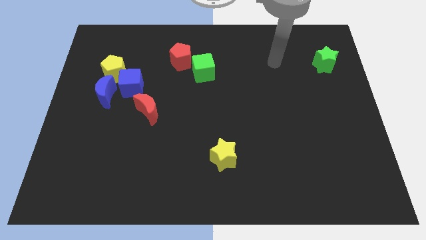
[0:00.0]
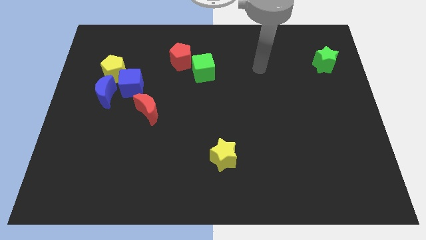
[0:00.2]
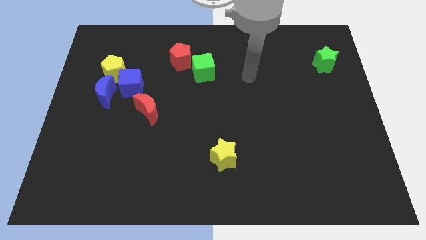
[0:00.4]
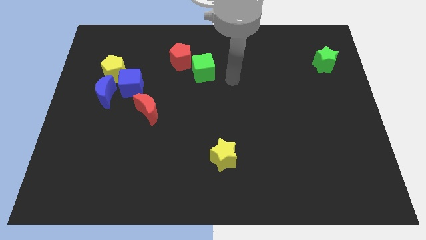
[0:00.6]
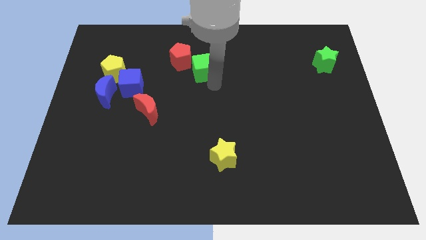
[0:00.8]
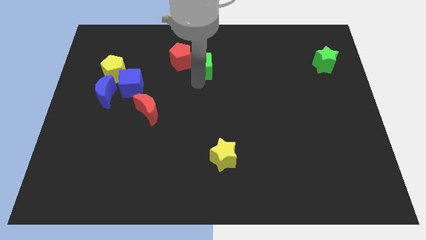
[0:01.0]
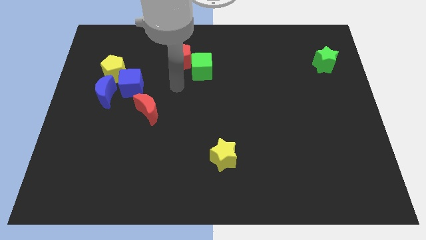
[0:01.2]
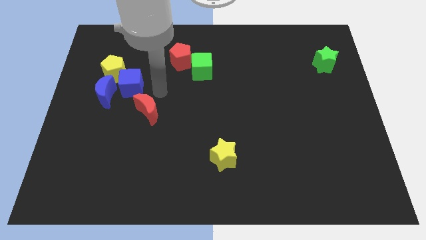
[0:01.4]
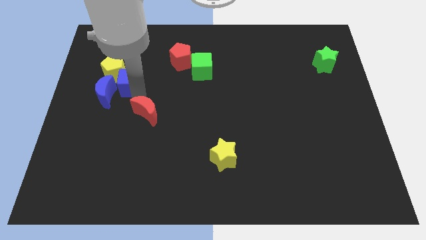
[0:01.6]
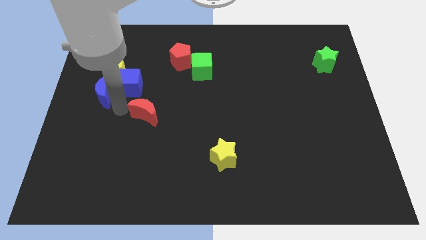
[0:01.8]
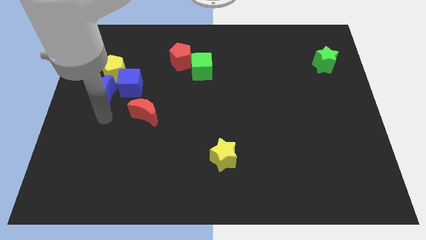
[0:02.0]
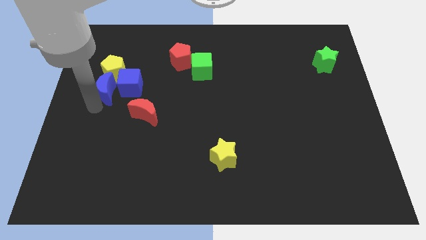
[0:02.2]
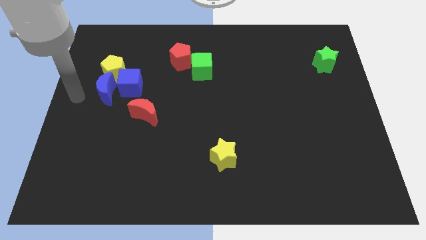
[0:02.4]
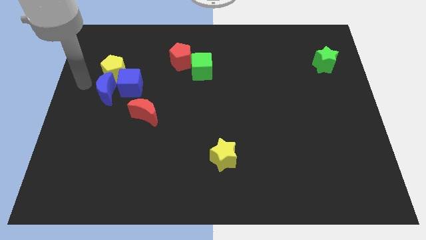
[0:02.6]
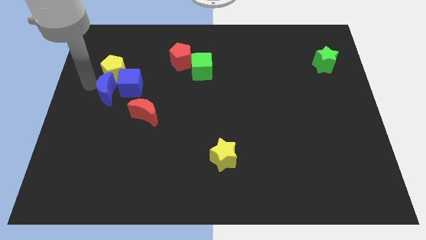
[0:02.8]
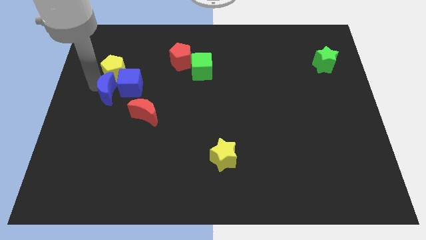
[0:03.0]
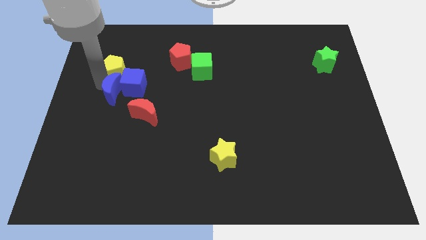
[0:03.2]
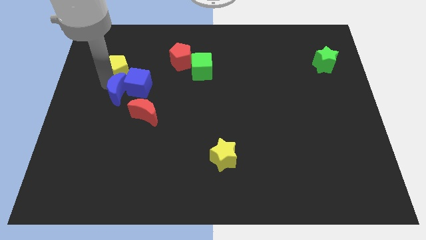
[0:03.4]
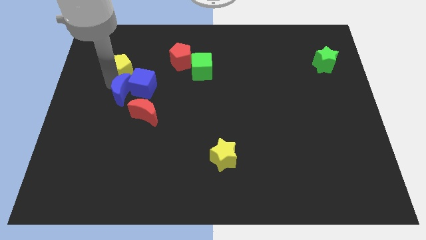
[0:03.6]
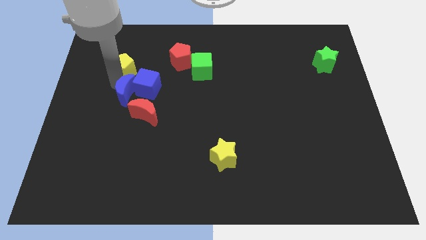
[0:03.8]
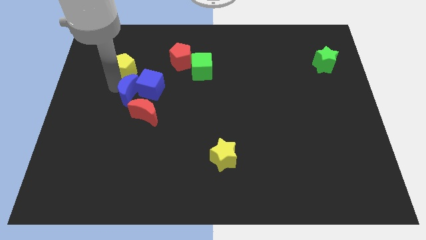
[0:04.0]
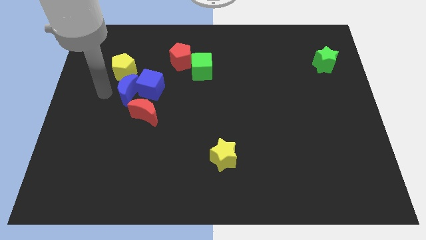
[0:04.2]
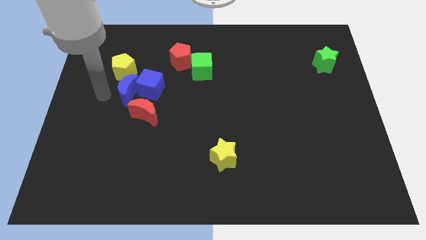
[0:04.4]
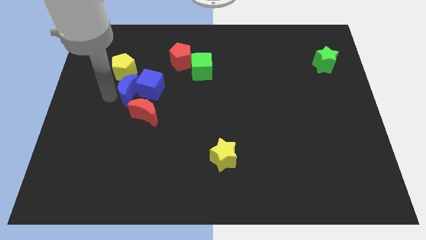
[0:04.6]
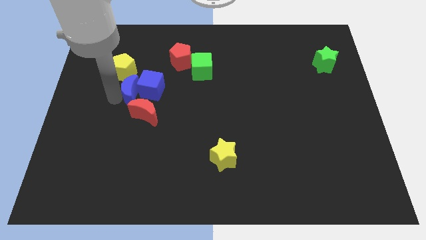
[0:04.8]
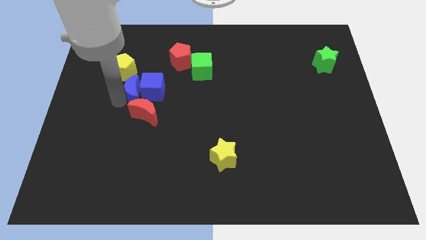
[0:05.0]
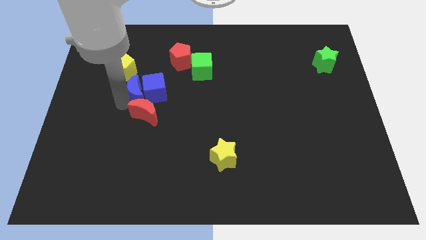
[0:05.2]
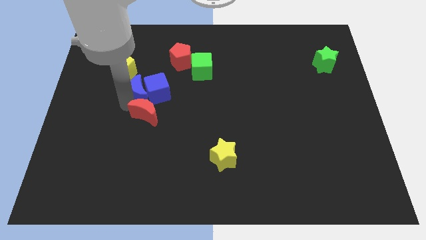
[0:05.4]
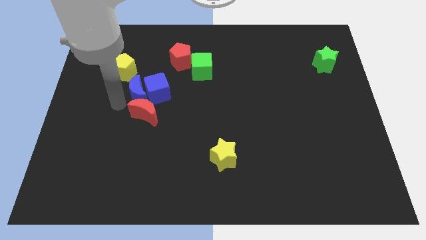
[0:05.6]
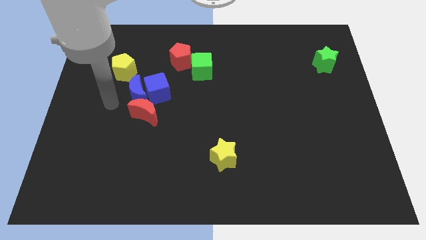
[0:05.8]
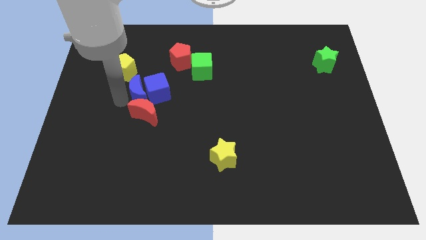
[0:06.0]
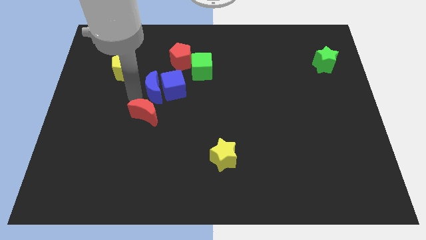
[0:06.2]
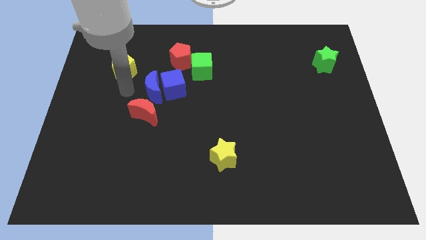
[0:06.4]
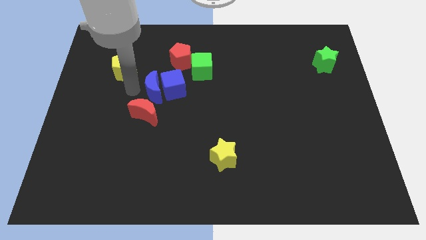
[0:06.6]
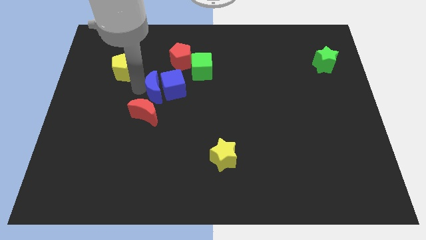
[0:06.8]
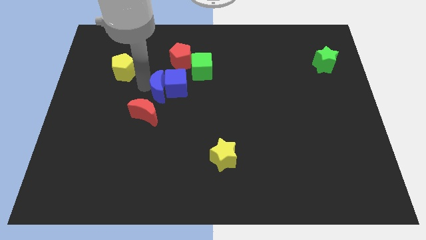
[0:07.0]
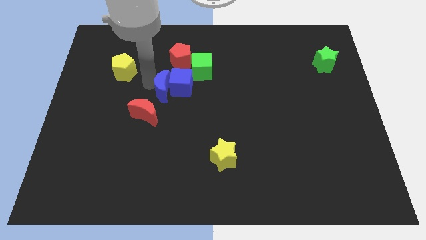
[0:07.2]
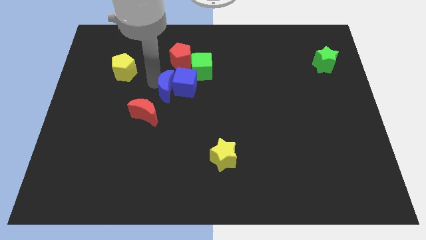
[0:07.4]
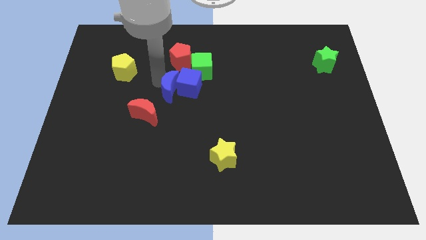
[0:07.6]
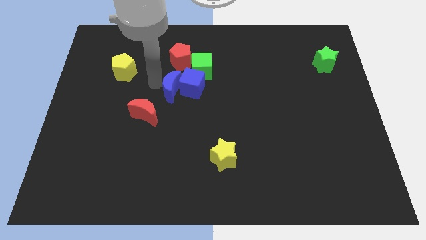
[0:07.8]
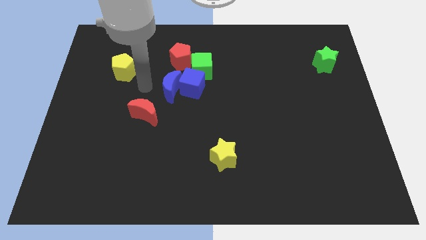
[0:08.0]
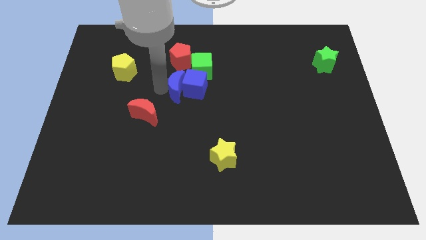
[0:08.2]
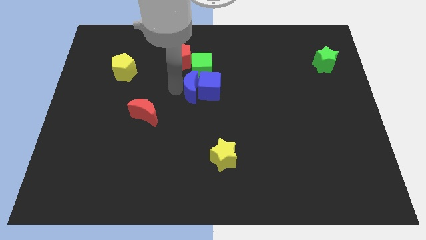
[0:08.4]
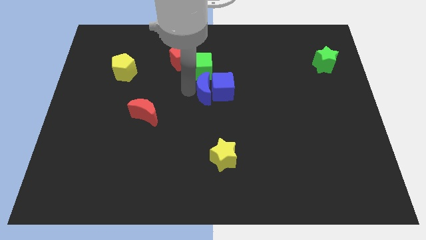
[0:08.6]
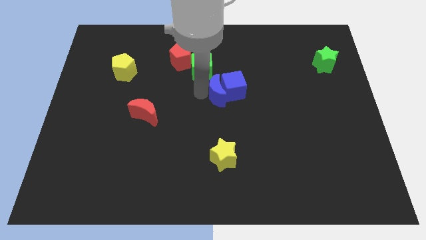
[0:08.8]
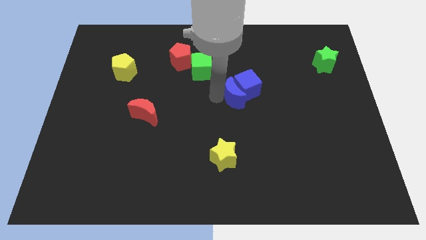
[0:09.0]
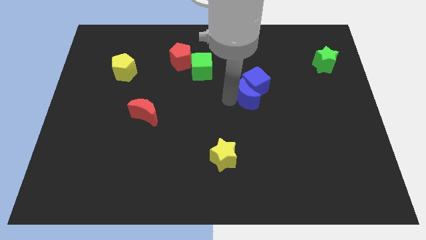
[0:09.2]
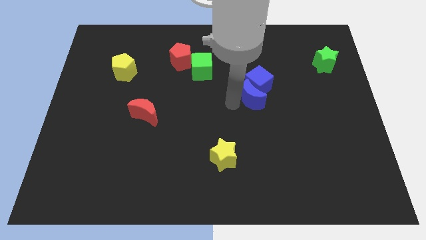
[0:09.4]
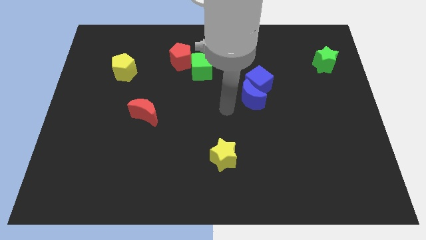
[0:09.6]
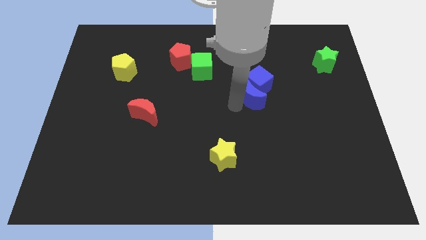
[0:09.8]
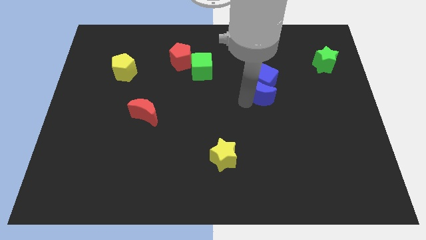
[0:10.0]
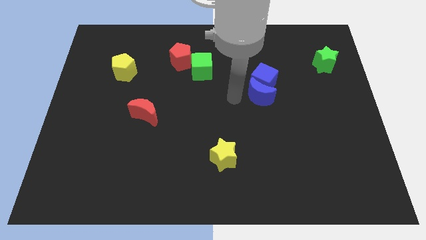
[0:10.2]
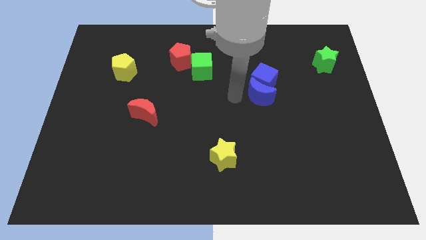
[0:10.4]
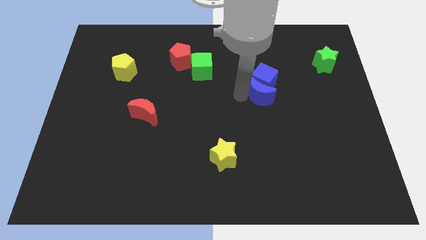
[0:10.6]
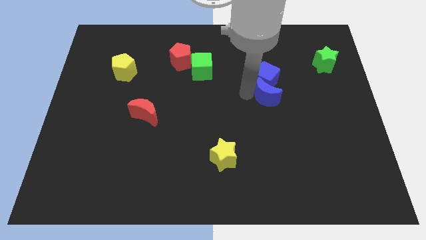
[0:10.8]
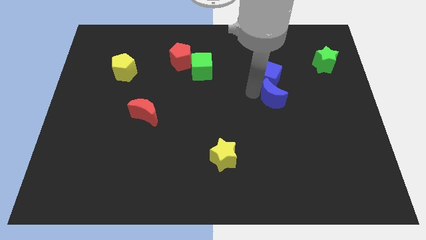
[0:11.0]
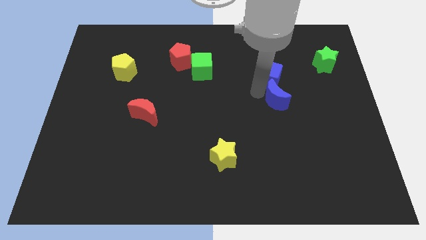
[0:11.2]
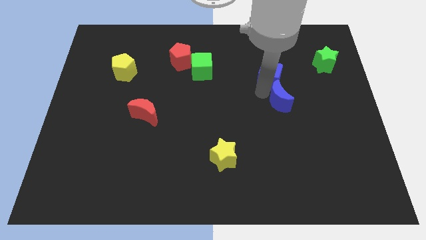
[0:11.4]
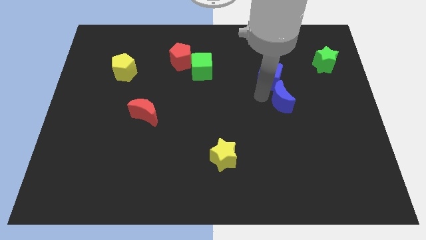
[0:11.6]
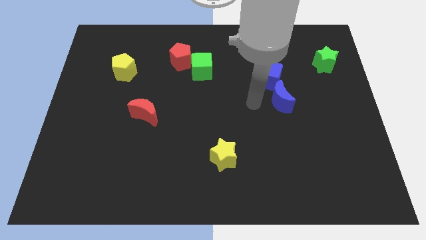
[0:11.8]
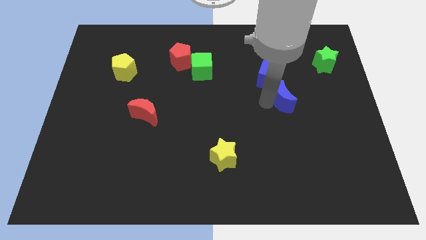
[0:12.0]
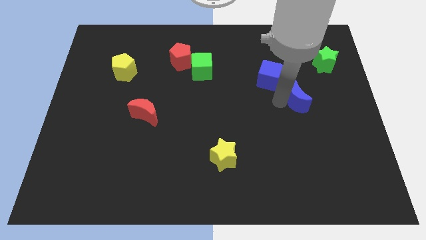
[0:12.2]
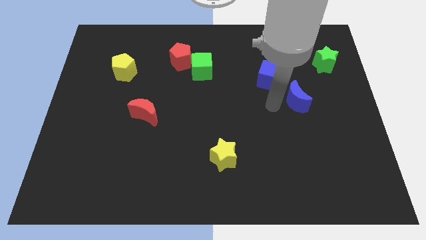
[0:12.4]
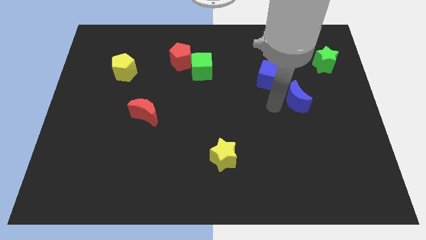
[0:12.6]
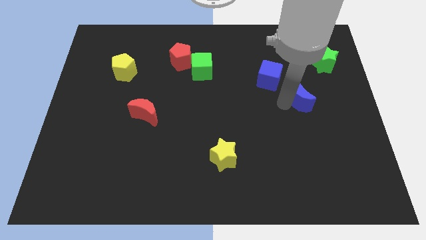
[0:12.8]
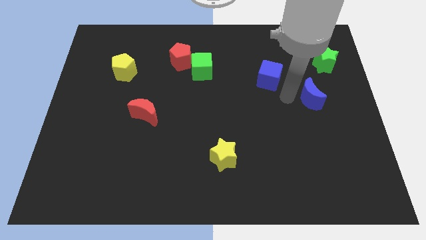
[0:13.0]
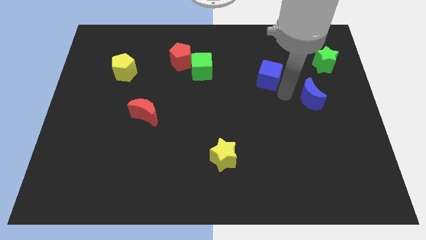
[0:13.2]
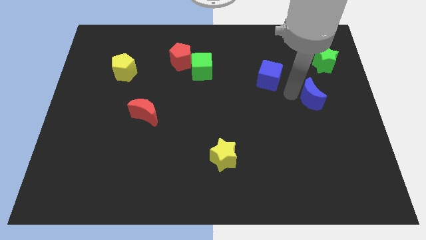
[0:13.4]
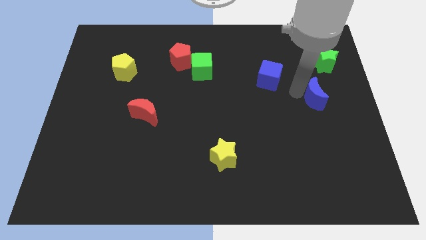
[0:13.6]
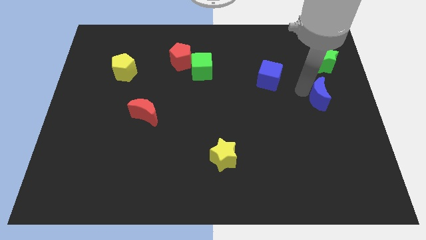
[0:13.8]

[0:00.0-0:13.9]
slide the blue moon to the right side
